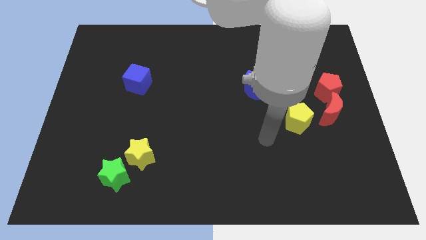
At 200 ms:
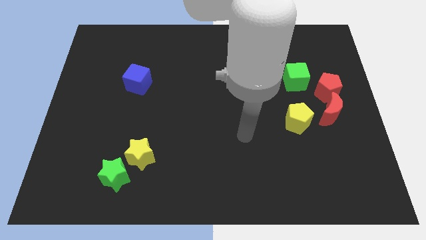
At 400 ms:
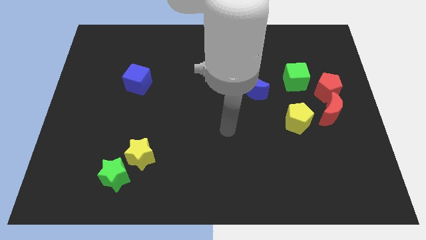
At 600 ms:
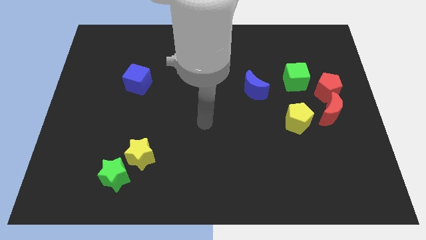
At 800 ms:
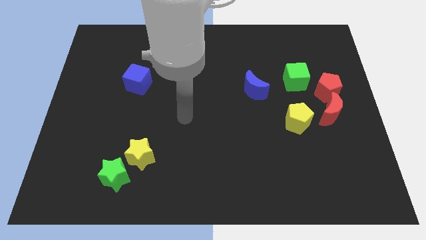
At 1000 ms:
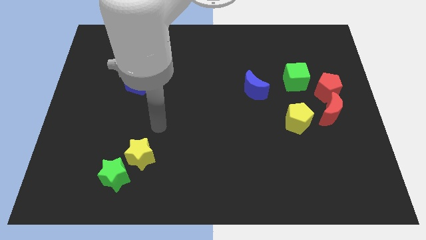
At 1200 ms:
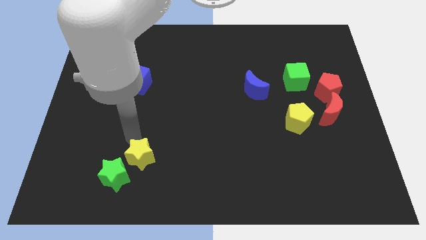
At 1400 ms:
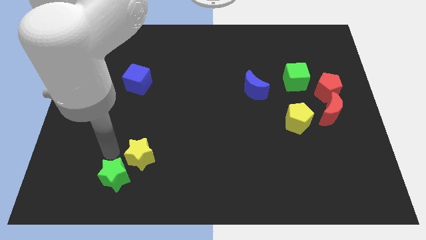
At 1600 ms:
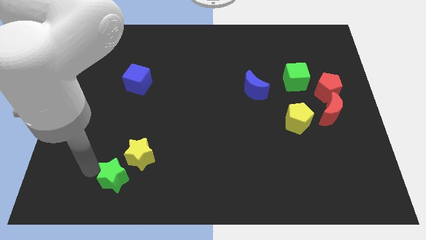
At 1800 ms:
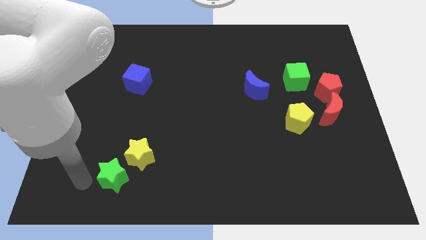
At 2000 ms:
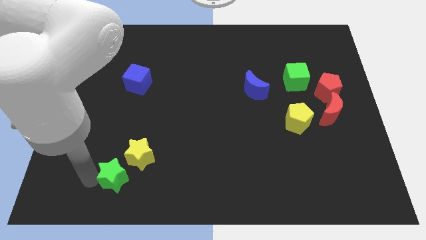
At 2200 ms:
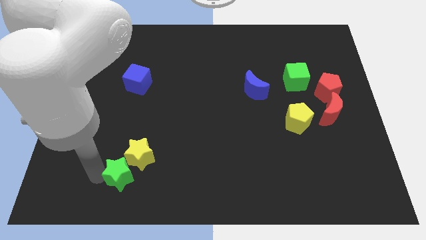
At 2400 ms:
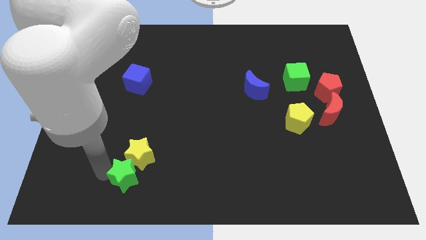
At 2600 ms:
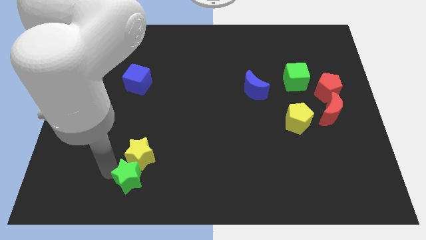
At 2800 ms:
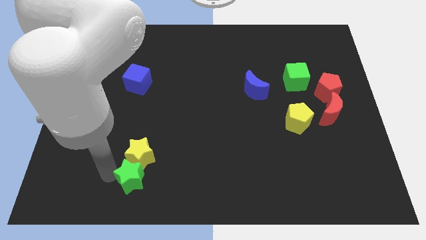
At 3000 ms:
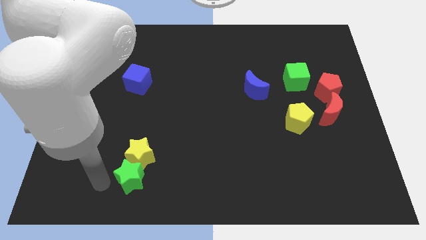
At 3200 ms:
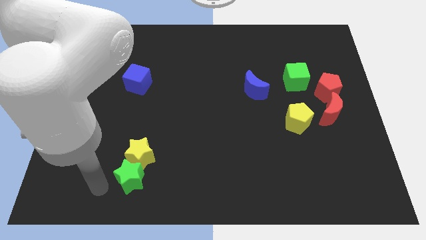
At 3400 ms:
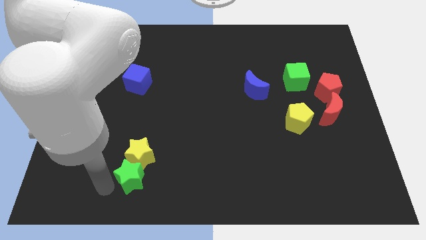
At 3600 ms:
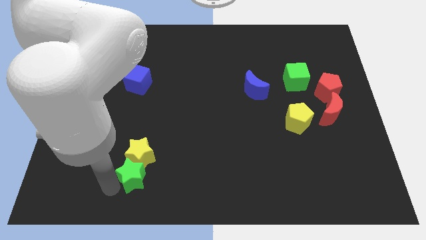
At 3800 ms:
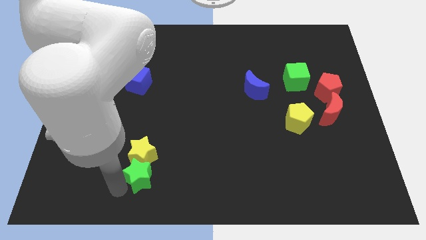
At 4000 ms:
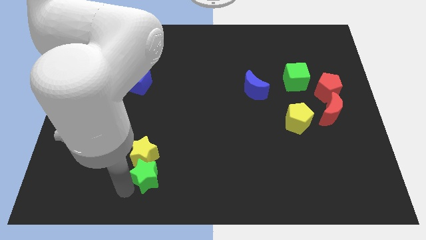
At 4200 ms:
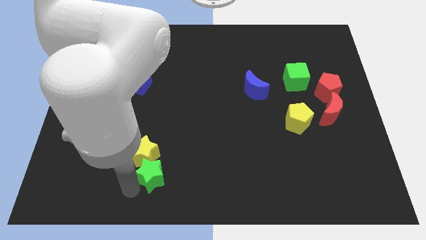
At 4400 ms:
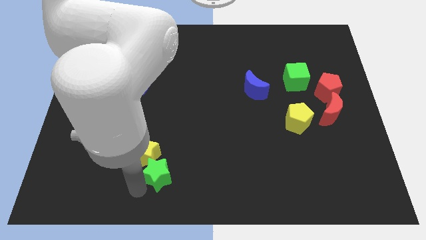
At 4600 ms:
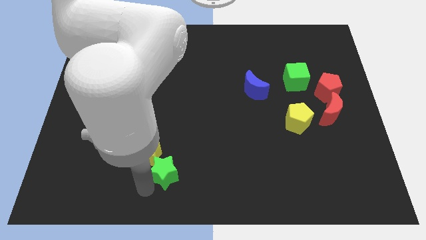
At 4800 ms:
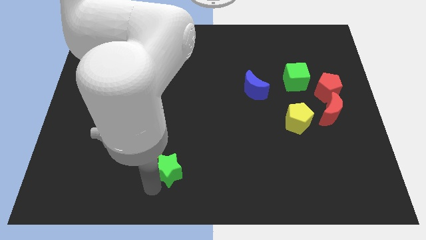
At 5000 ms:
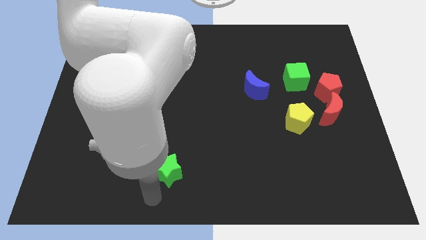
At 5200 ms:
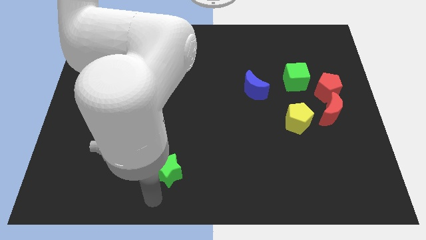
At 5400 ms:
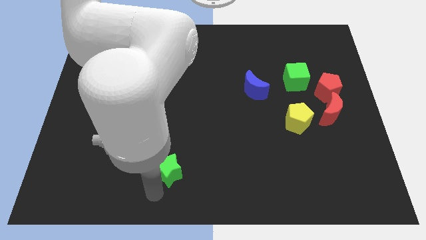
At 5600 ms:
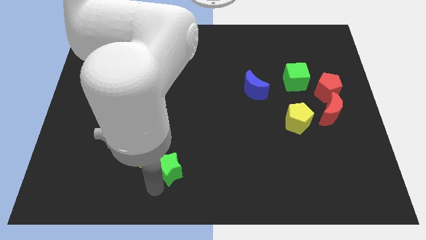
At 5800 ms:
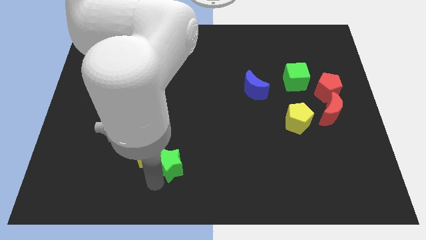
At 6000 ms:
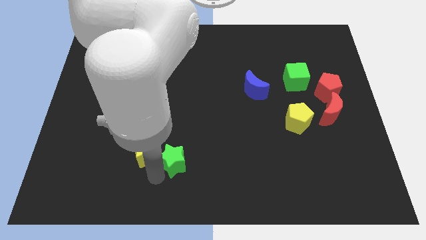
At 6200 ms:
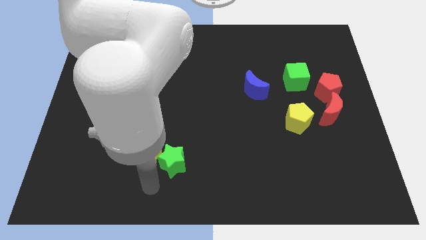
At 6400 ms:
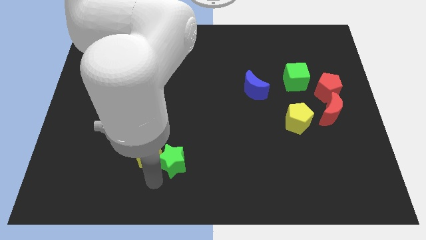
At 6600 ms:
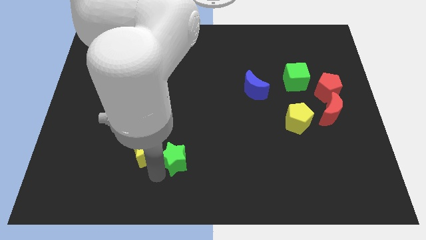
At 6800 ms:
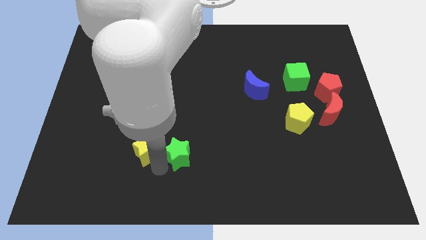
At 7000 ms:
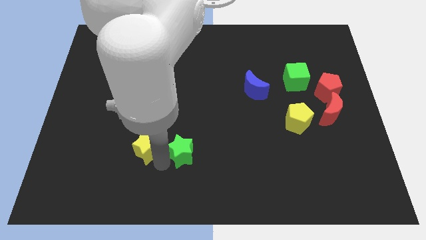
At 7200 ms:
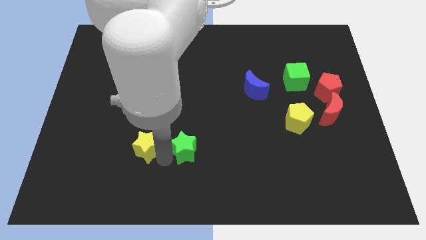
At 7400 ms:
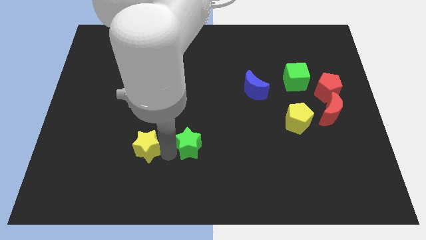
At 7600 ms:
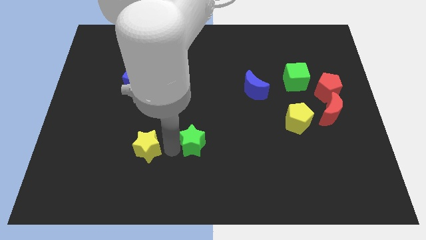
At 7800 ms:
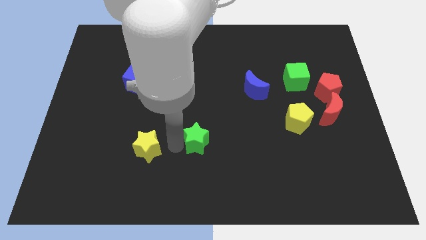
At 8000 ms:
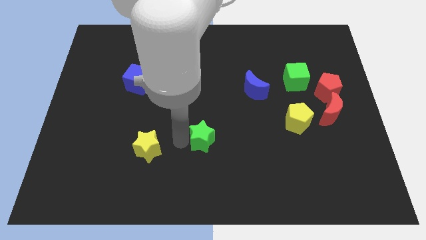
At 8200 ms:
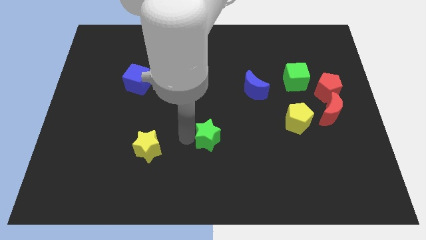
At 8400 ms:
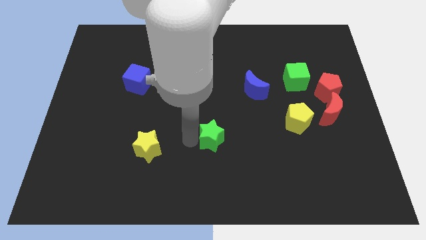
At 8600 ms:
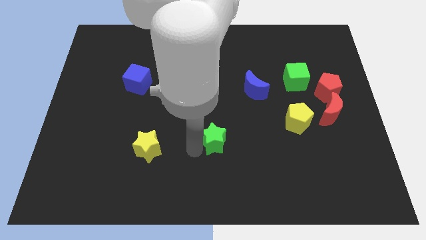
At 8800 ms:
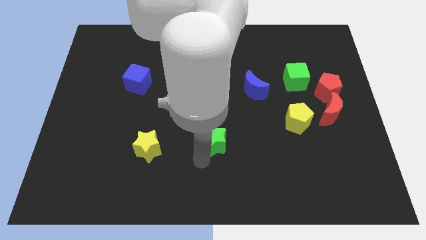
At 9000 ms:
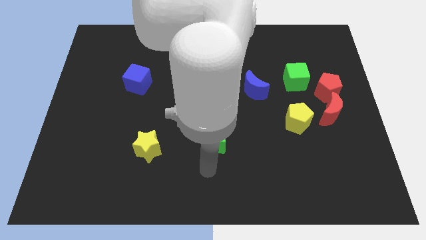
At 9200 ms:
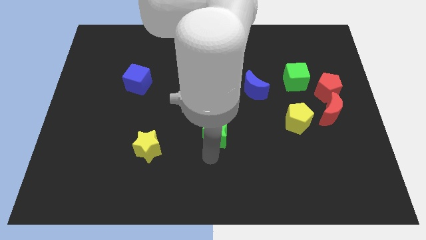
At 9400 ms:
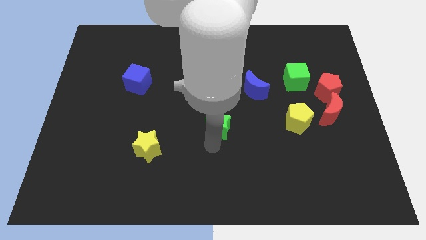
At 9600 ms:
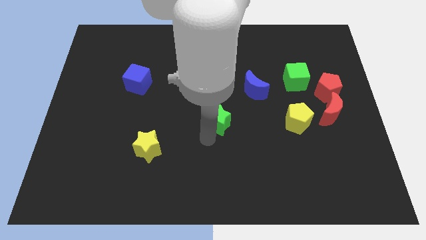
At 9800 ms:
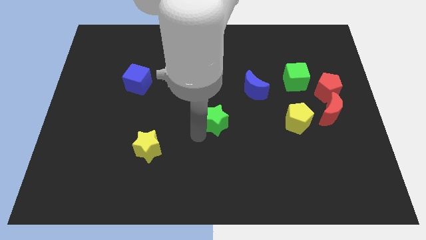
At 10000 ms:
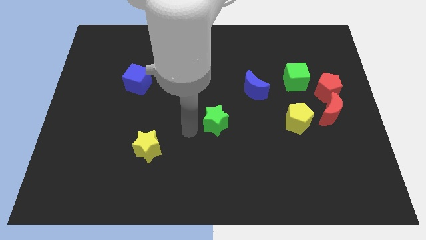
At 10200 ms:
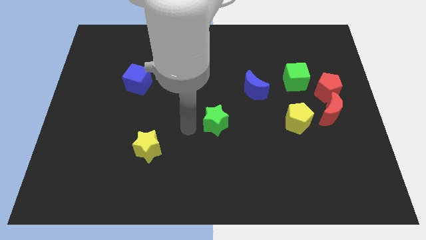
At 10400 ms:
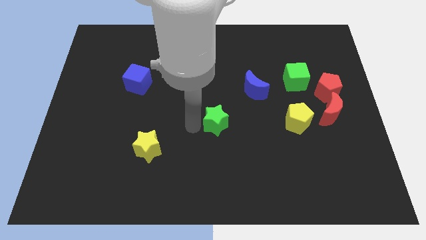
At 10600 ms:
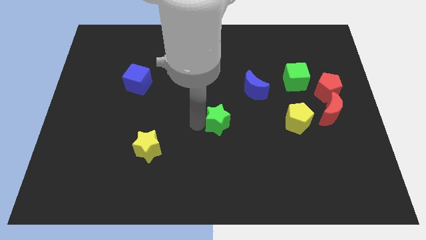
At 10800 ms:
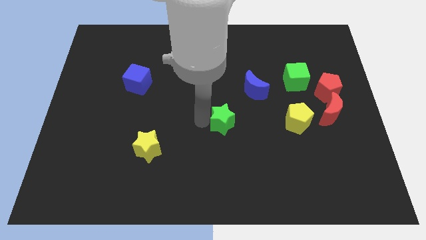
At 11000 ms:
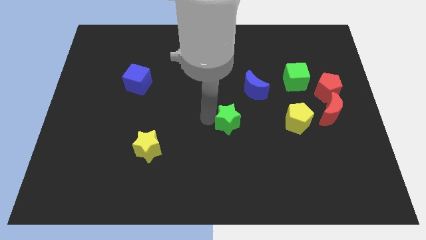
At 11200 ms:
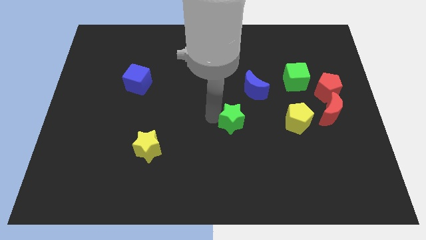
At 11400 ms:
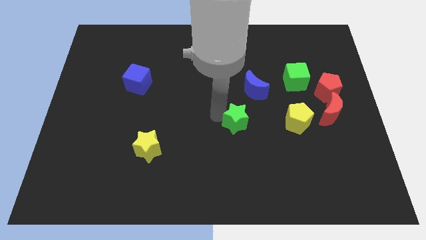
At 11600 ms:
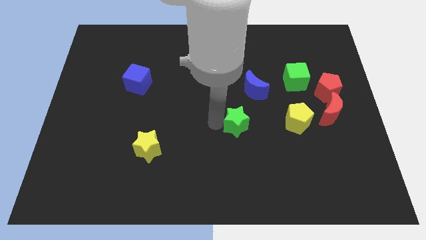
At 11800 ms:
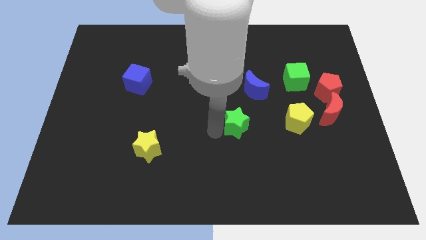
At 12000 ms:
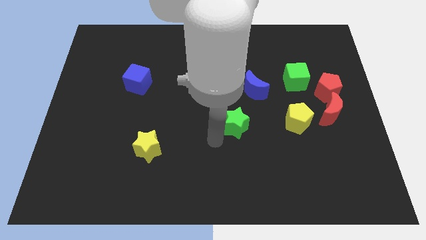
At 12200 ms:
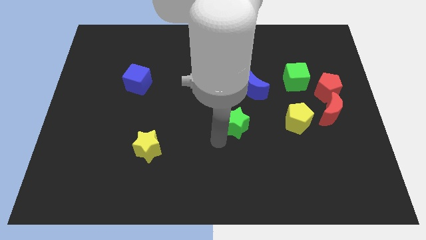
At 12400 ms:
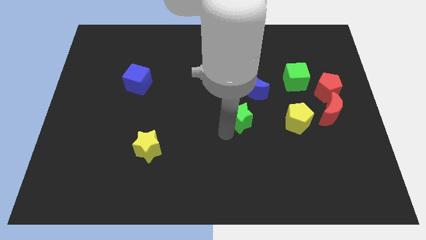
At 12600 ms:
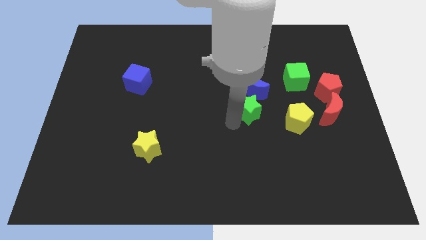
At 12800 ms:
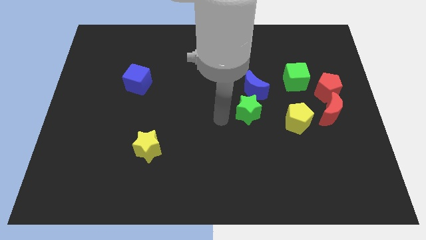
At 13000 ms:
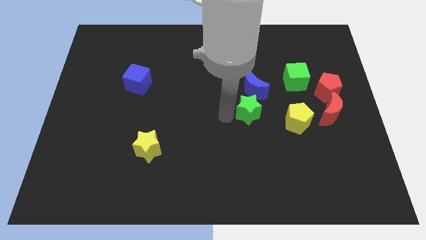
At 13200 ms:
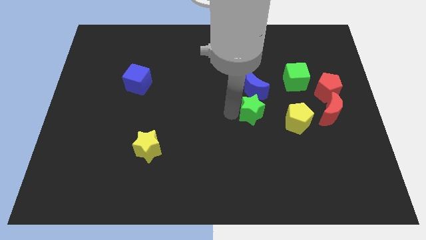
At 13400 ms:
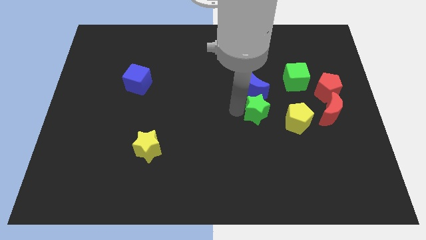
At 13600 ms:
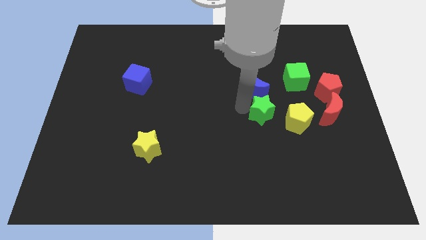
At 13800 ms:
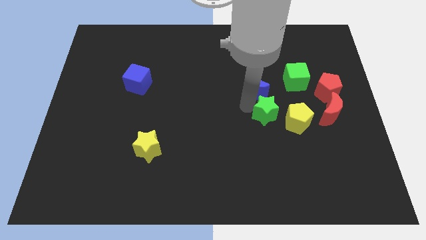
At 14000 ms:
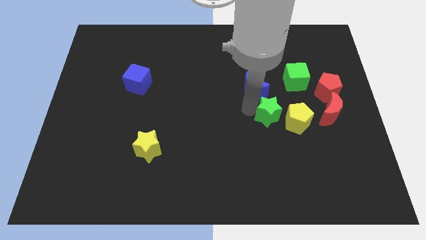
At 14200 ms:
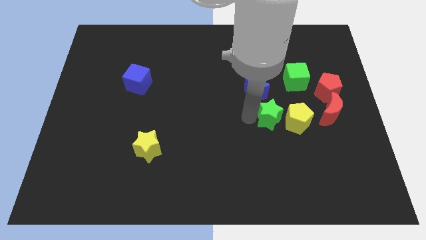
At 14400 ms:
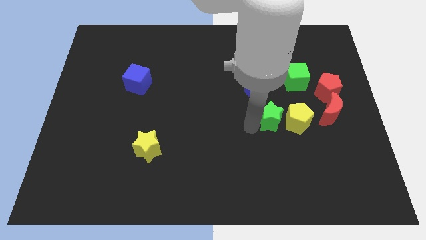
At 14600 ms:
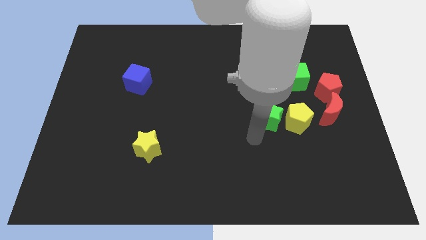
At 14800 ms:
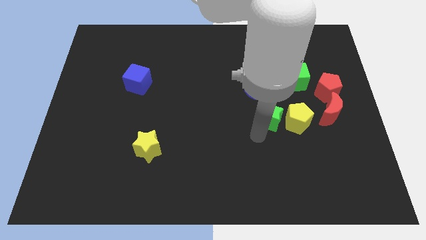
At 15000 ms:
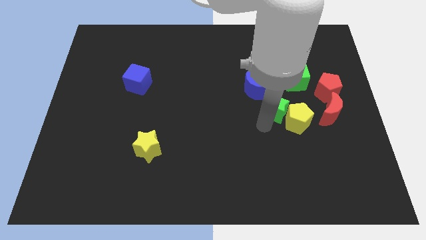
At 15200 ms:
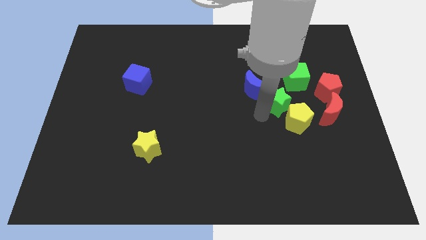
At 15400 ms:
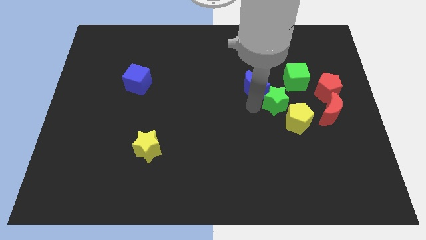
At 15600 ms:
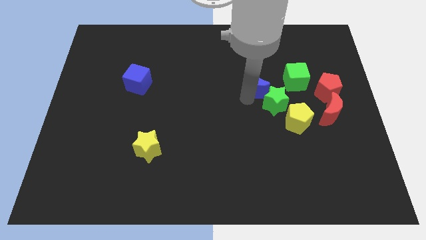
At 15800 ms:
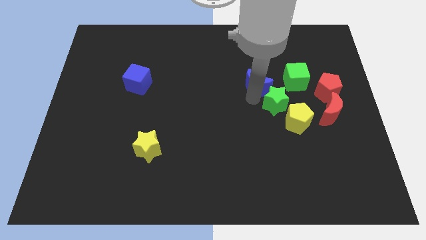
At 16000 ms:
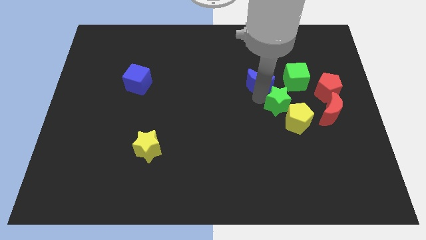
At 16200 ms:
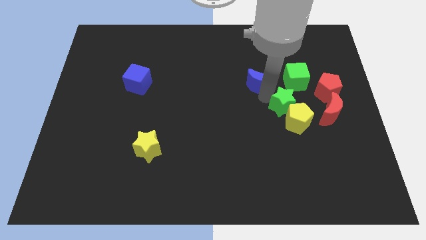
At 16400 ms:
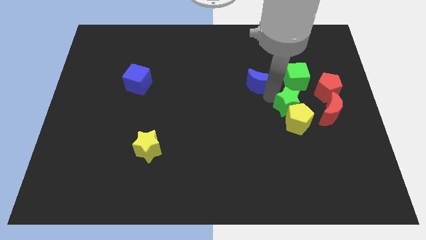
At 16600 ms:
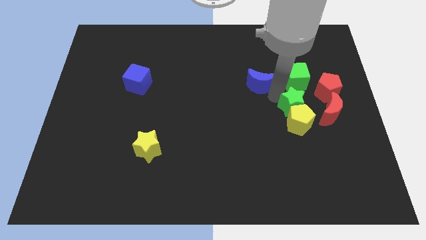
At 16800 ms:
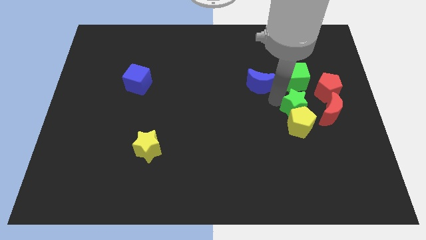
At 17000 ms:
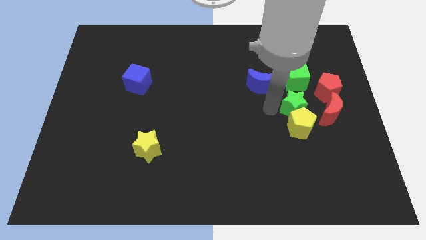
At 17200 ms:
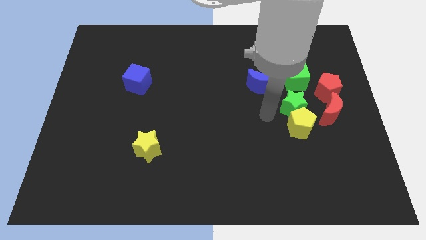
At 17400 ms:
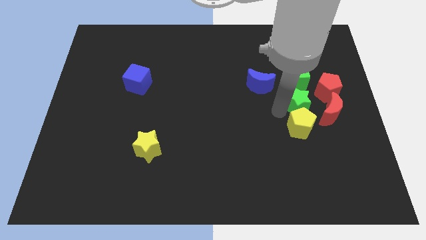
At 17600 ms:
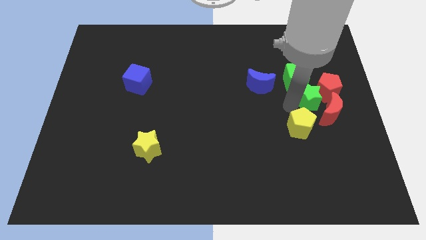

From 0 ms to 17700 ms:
put the green star towards the red pentagon
